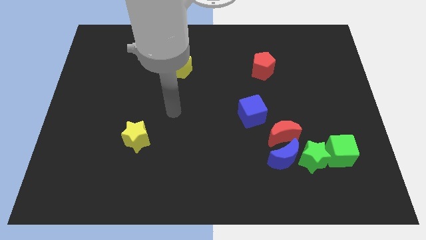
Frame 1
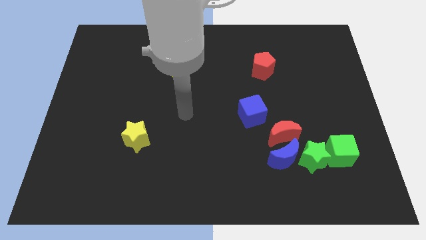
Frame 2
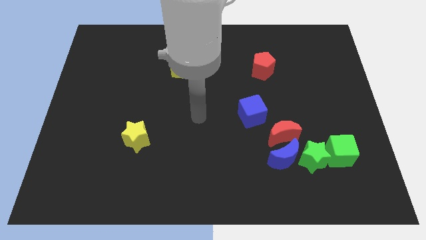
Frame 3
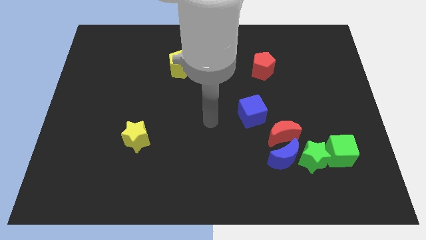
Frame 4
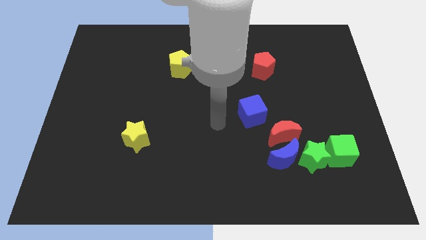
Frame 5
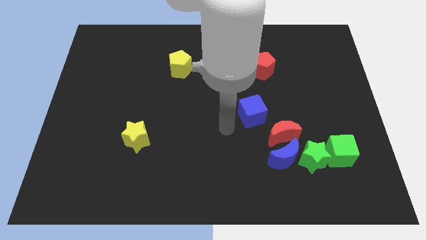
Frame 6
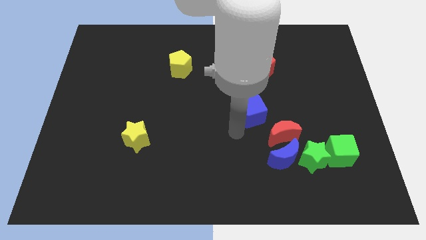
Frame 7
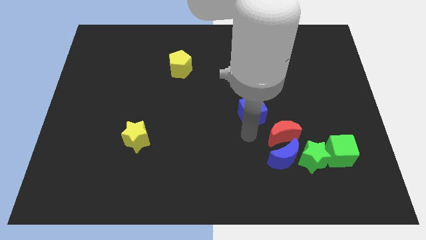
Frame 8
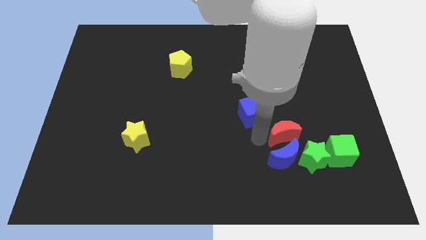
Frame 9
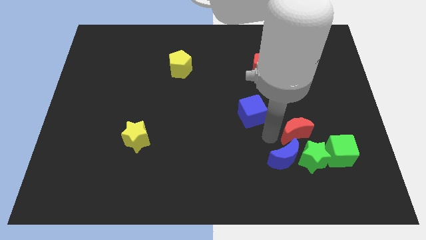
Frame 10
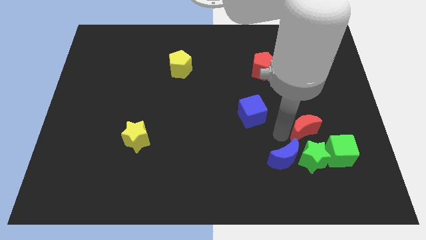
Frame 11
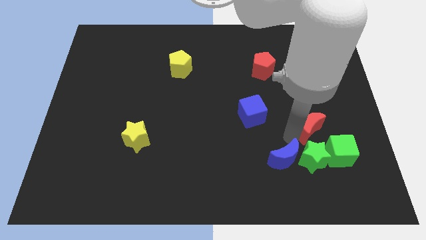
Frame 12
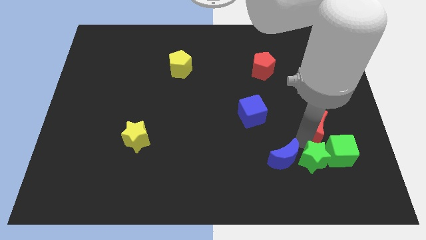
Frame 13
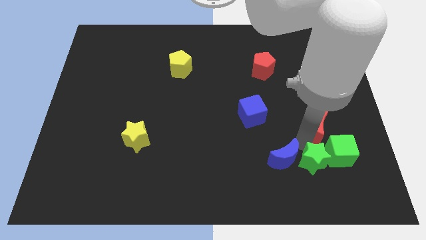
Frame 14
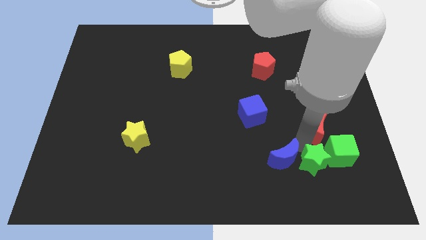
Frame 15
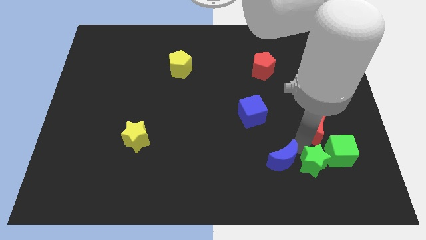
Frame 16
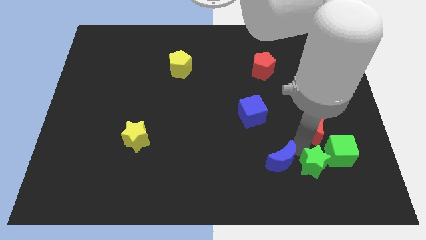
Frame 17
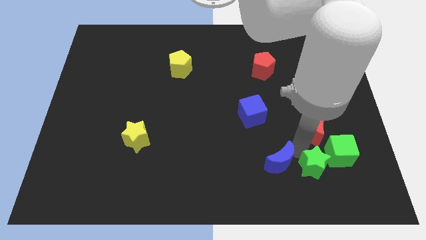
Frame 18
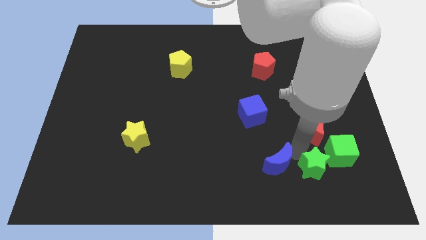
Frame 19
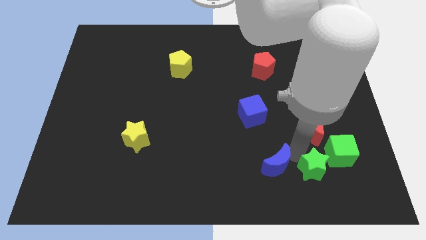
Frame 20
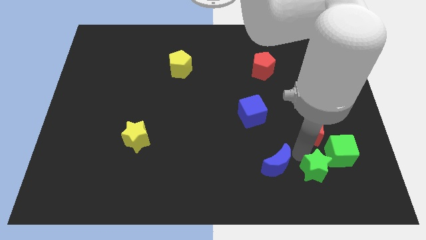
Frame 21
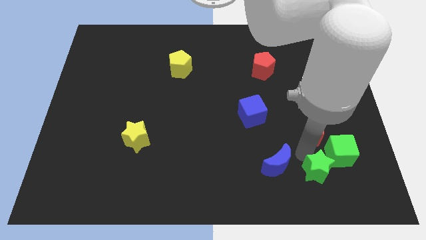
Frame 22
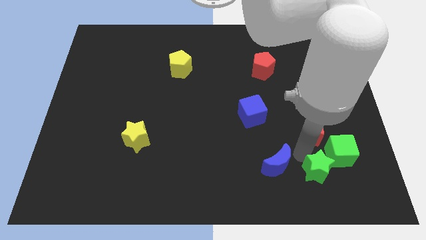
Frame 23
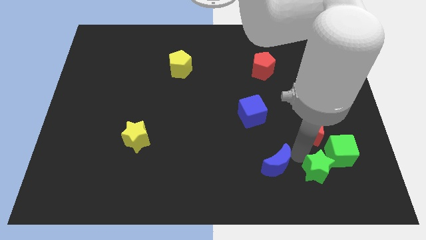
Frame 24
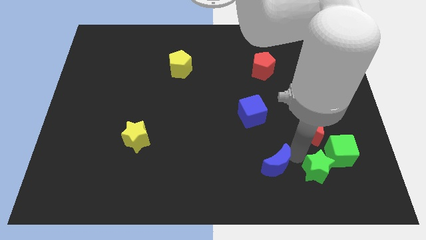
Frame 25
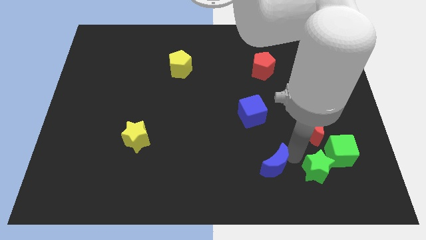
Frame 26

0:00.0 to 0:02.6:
pull the blue moon apart from the green star and red moon

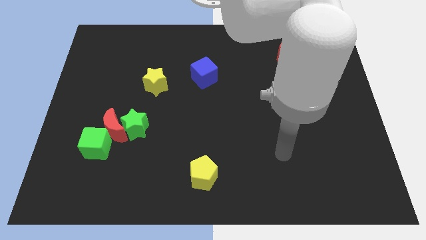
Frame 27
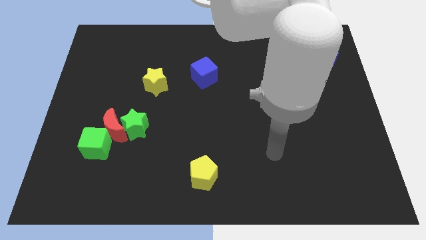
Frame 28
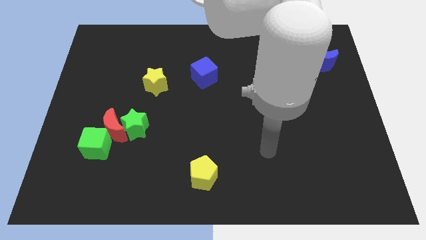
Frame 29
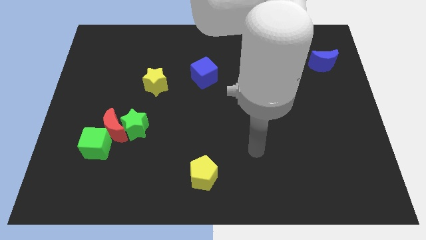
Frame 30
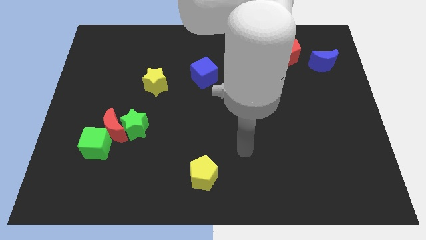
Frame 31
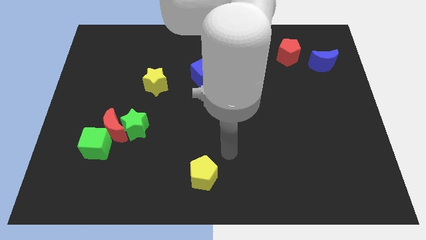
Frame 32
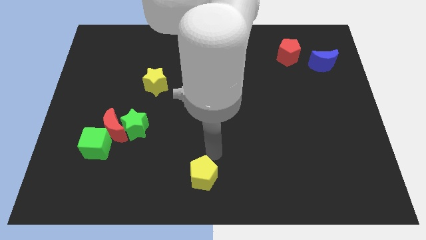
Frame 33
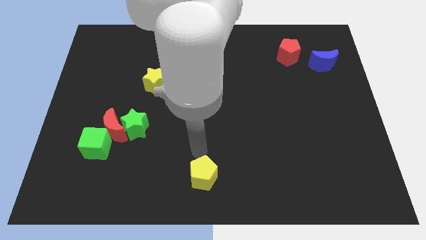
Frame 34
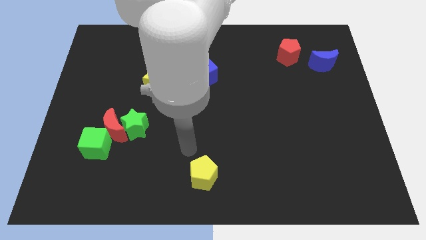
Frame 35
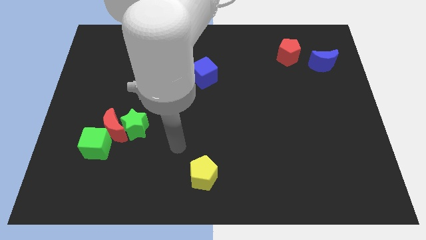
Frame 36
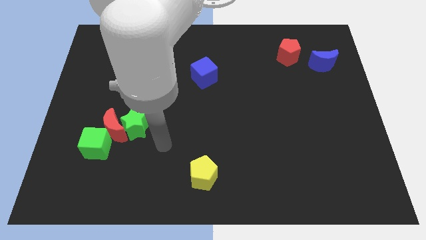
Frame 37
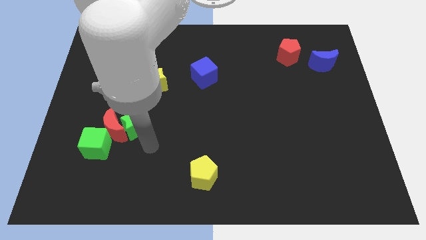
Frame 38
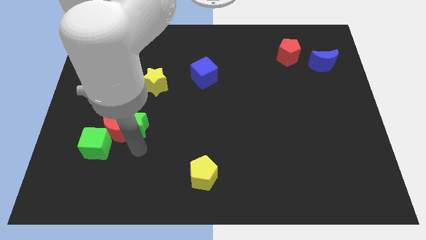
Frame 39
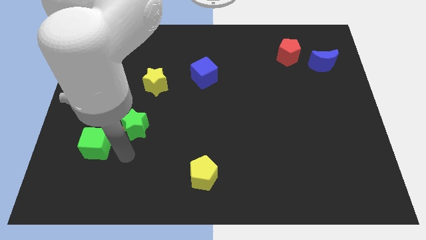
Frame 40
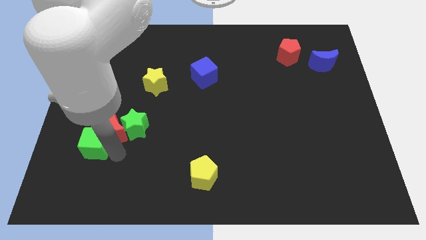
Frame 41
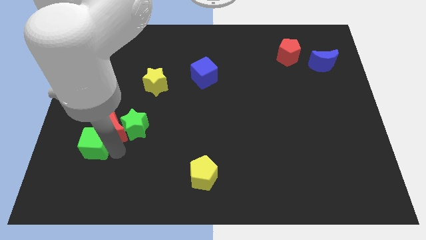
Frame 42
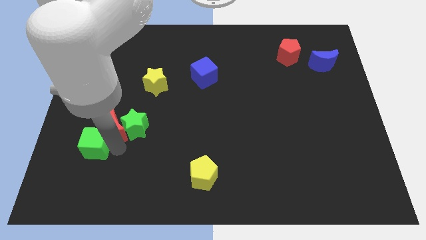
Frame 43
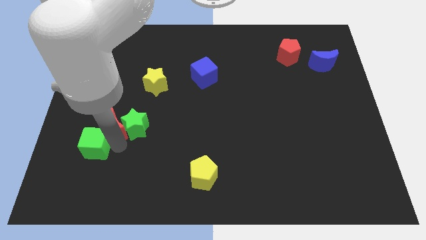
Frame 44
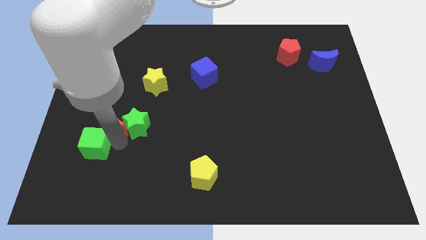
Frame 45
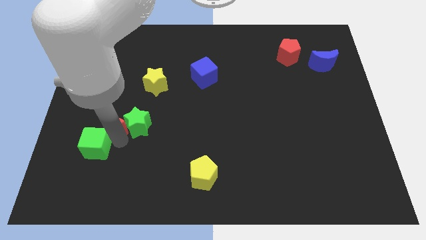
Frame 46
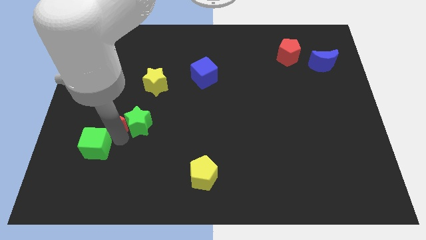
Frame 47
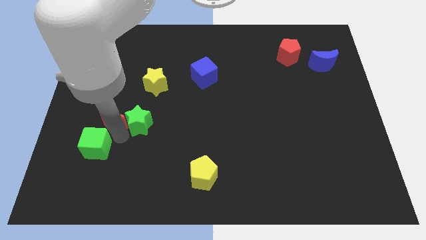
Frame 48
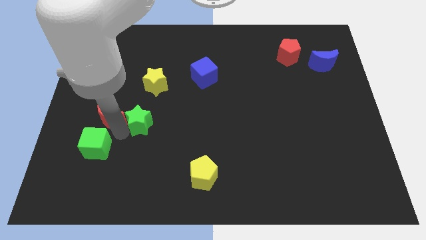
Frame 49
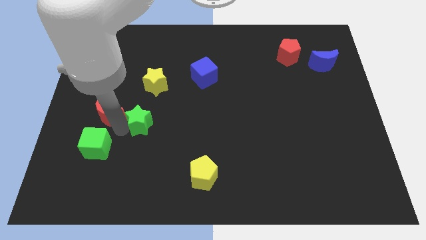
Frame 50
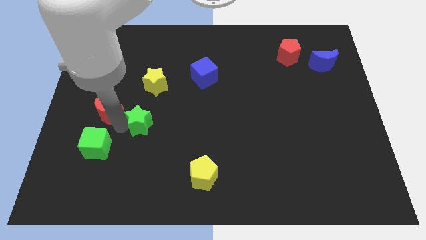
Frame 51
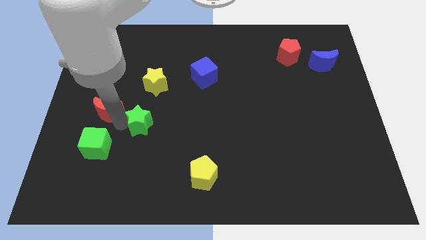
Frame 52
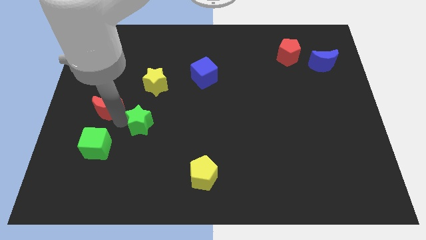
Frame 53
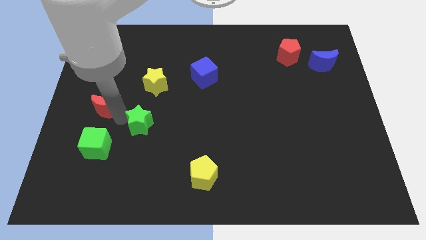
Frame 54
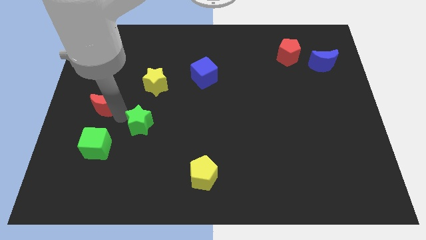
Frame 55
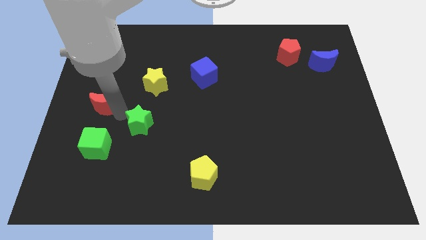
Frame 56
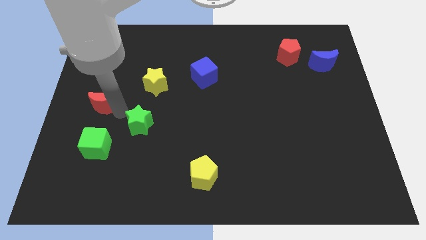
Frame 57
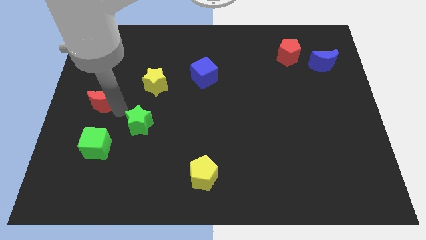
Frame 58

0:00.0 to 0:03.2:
move the red moon away from the green star and green cube

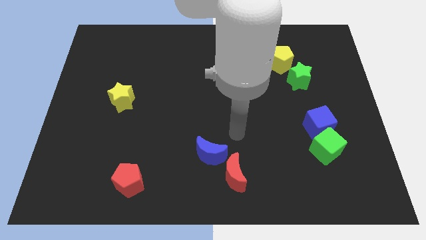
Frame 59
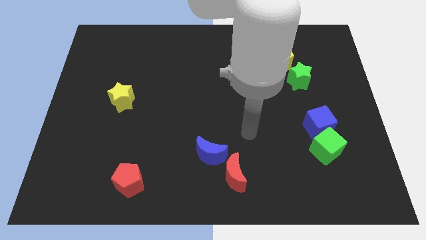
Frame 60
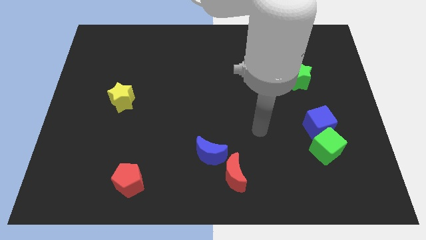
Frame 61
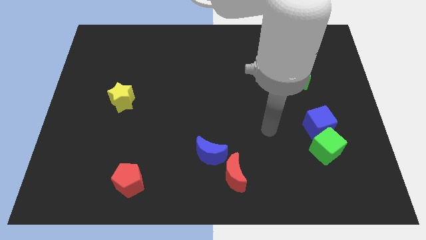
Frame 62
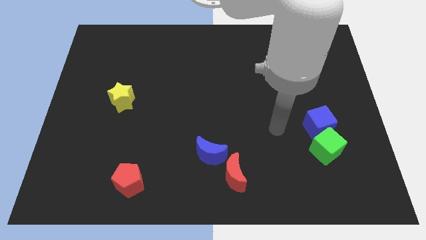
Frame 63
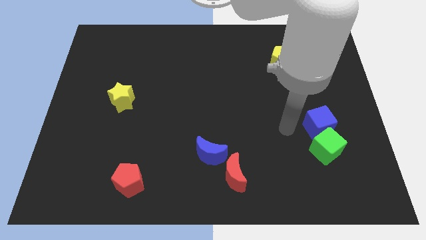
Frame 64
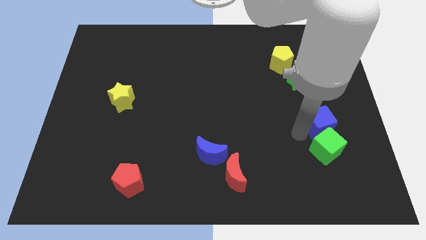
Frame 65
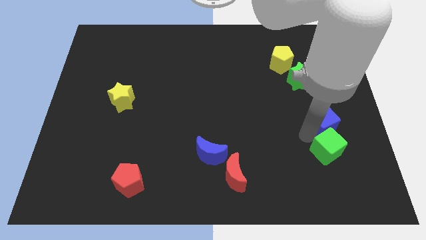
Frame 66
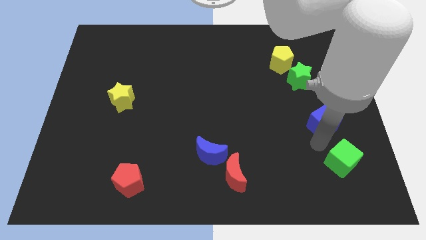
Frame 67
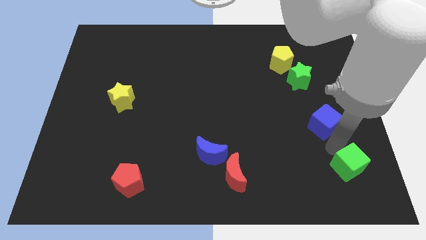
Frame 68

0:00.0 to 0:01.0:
move the blue cube away from the green cube

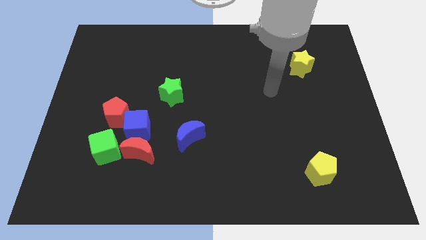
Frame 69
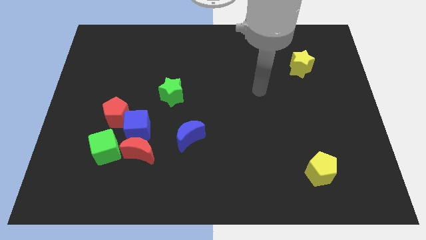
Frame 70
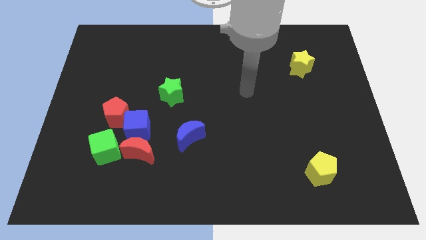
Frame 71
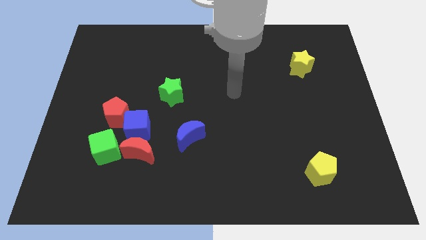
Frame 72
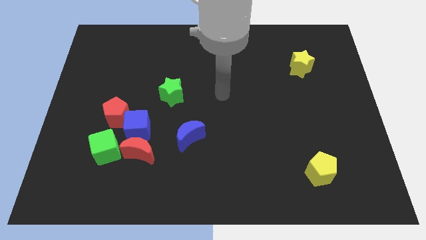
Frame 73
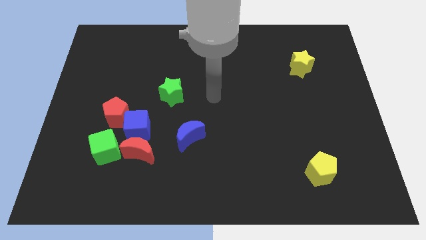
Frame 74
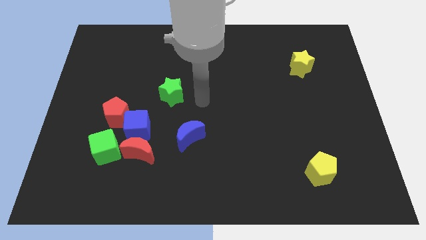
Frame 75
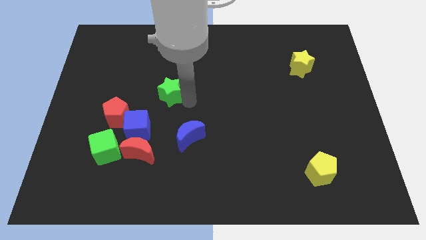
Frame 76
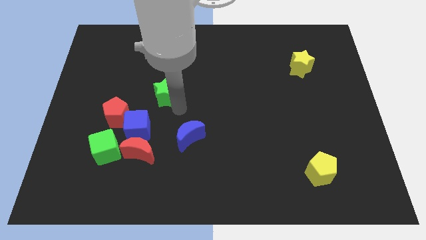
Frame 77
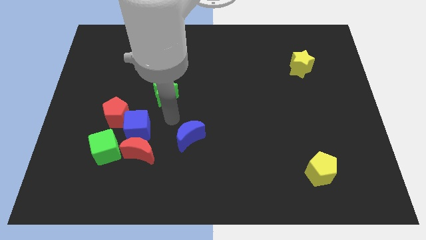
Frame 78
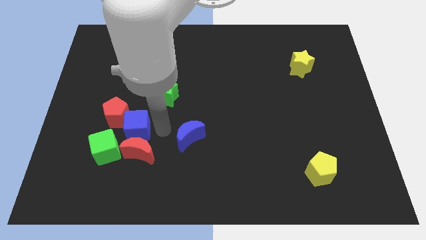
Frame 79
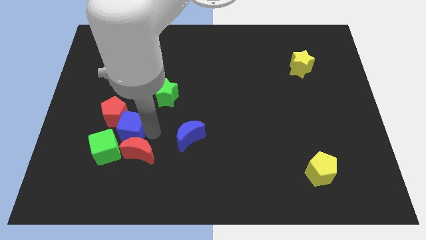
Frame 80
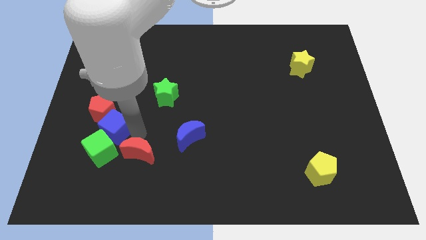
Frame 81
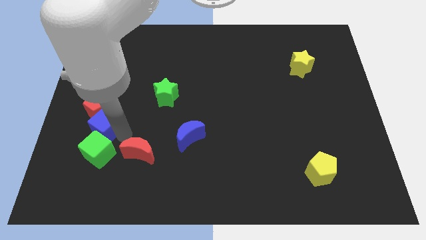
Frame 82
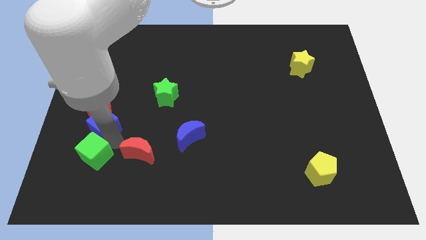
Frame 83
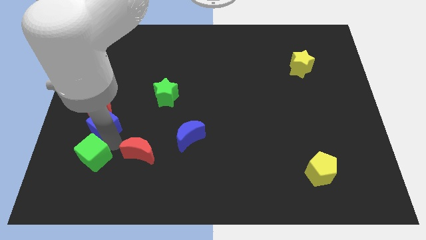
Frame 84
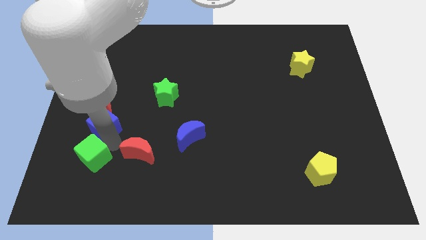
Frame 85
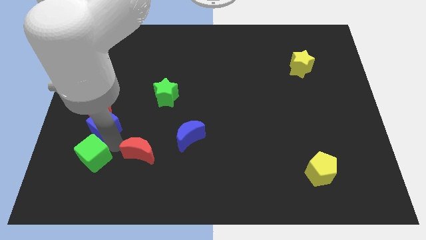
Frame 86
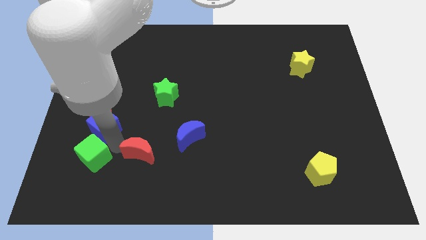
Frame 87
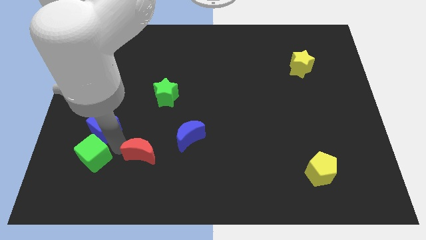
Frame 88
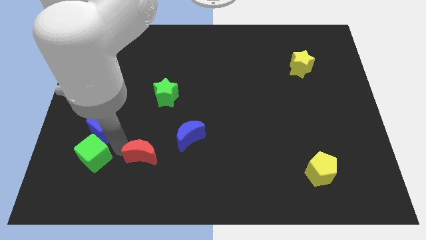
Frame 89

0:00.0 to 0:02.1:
pull the red moon apart from the blue cube and green cube

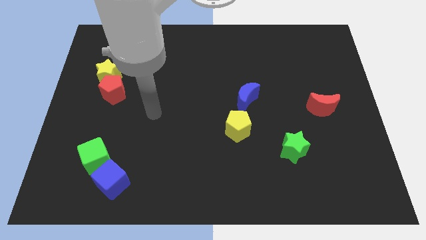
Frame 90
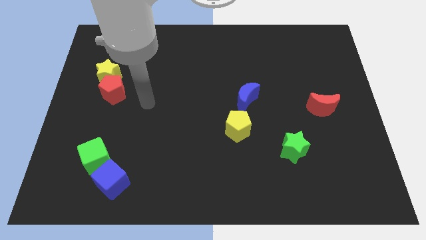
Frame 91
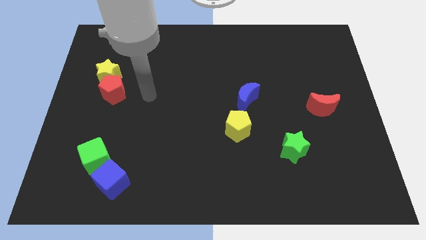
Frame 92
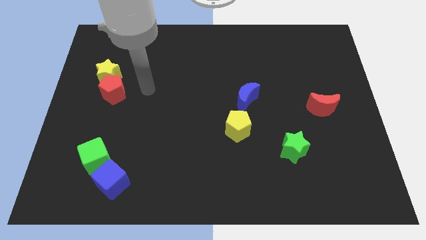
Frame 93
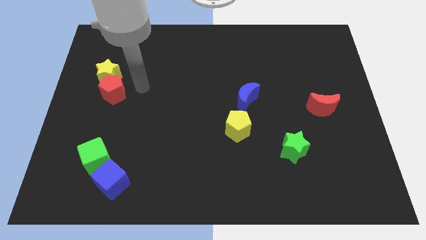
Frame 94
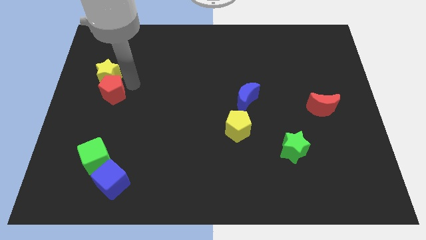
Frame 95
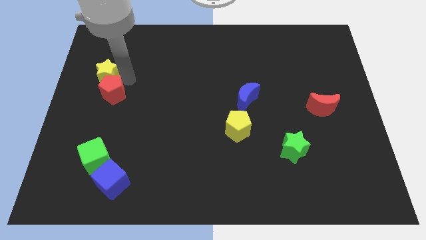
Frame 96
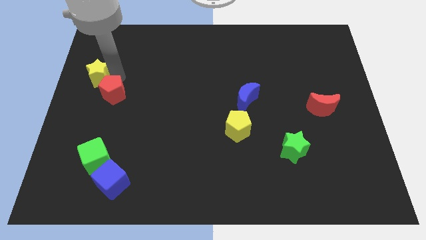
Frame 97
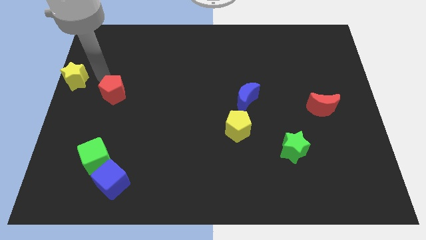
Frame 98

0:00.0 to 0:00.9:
separate the red pentagon from the yellow star
